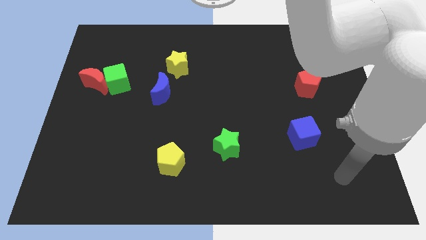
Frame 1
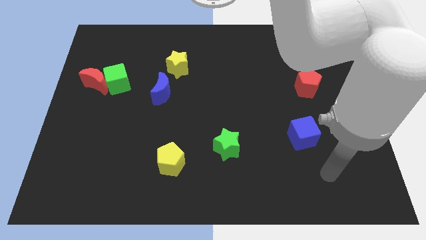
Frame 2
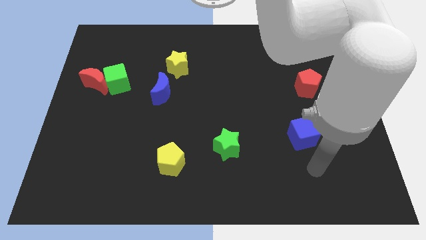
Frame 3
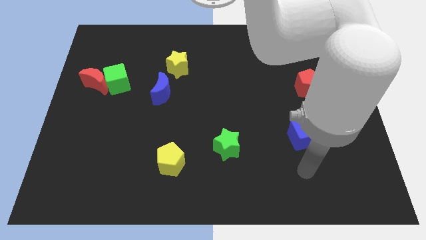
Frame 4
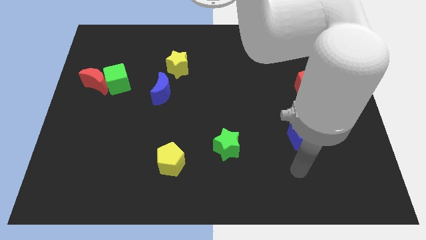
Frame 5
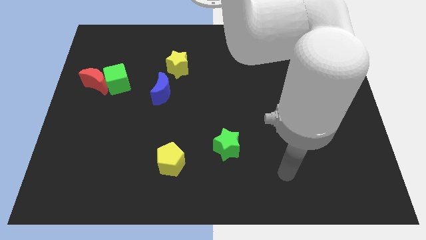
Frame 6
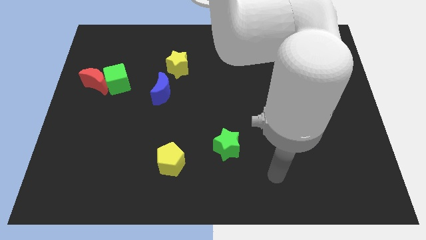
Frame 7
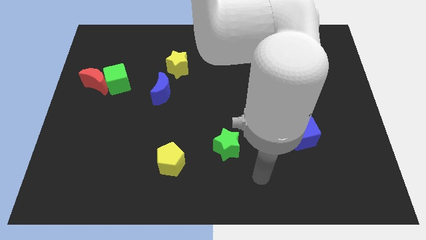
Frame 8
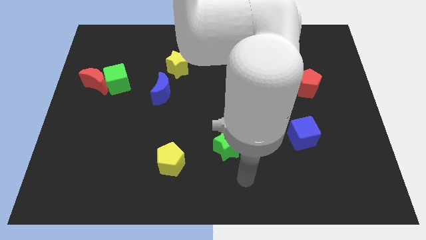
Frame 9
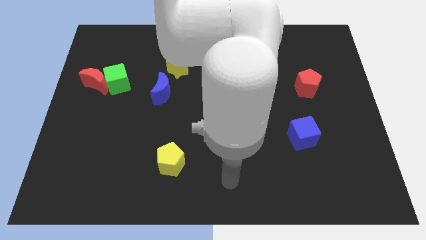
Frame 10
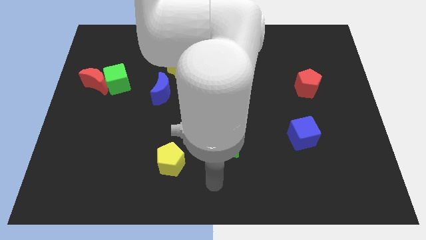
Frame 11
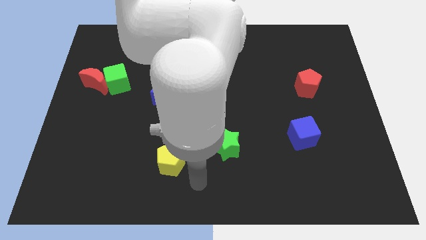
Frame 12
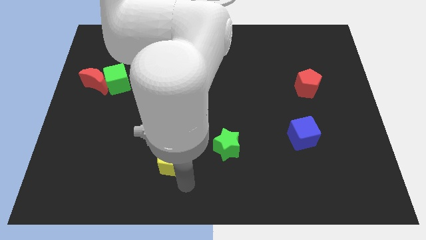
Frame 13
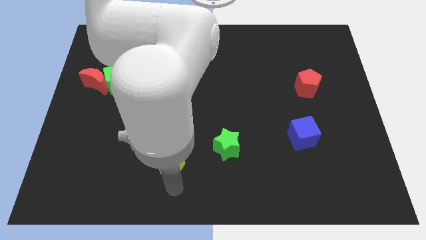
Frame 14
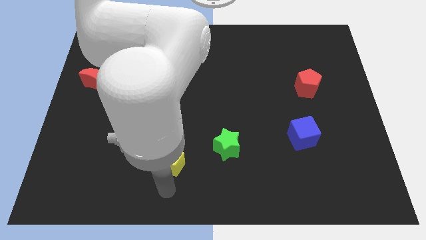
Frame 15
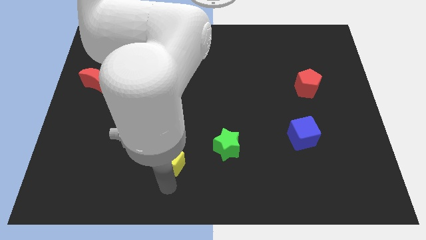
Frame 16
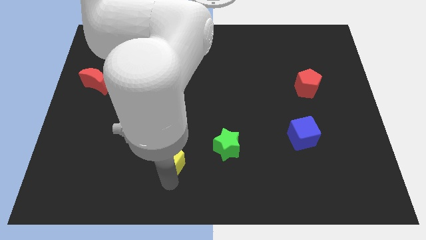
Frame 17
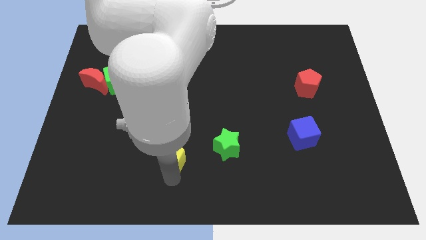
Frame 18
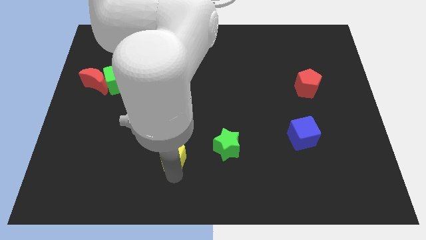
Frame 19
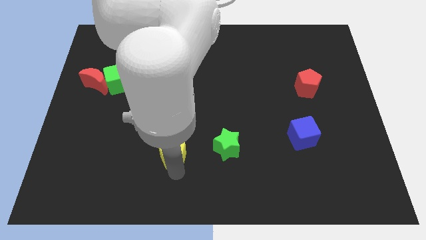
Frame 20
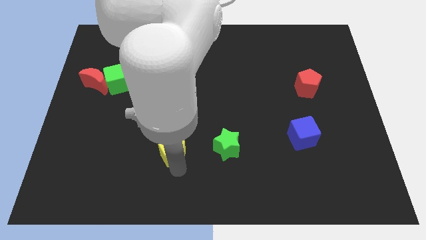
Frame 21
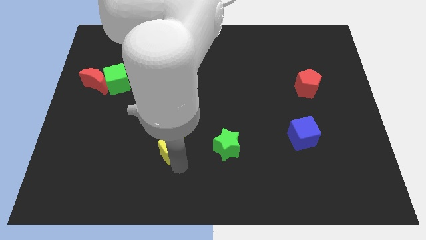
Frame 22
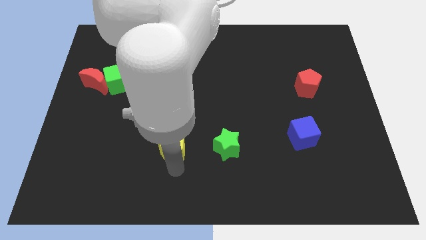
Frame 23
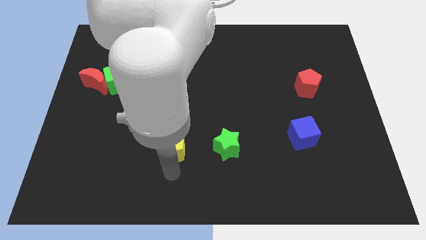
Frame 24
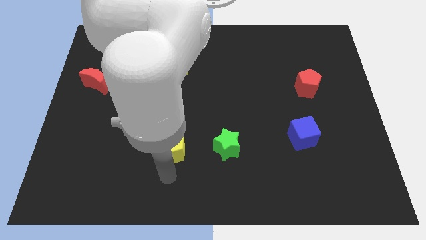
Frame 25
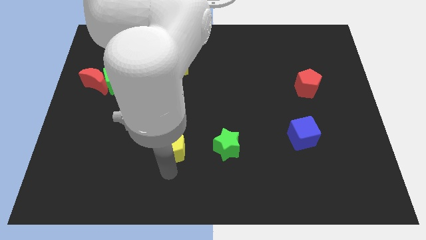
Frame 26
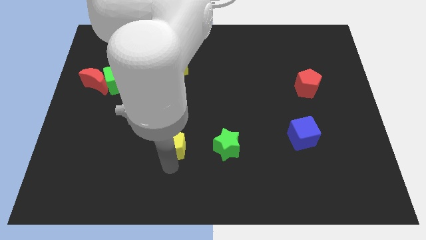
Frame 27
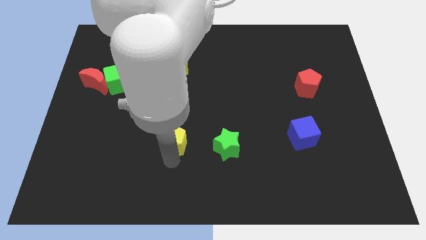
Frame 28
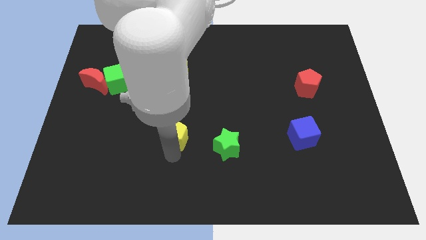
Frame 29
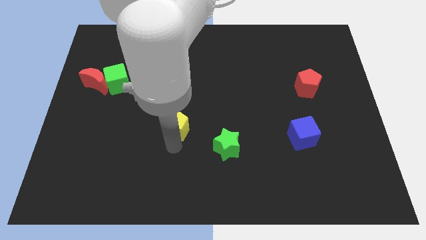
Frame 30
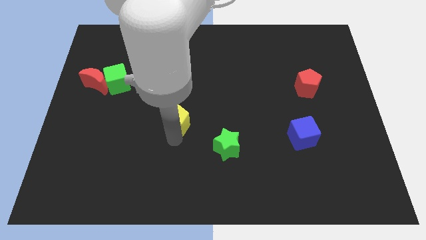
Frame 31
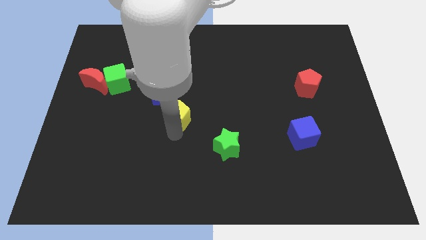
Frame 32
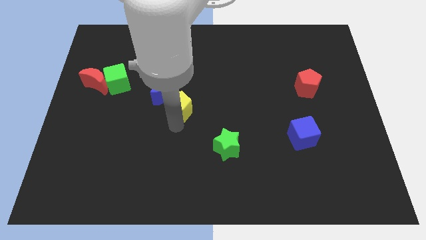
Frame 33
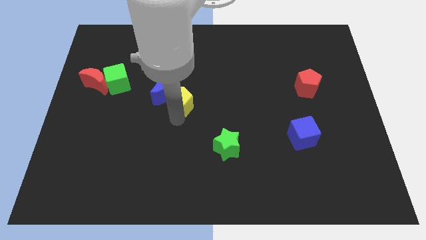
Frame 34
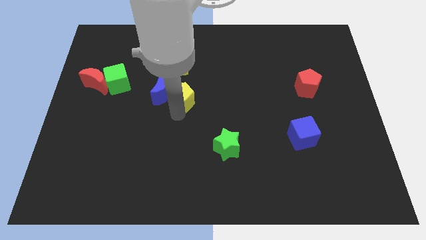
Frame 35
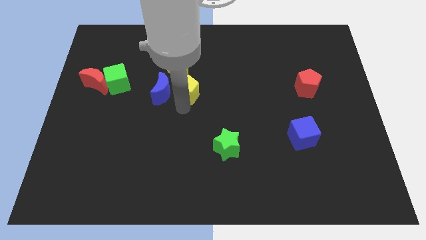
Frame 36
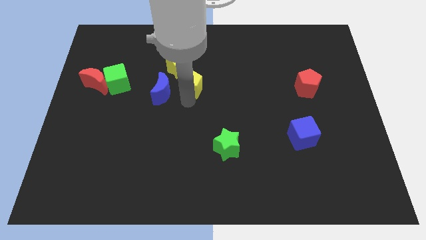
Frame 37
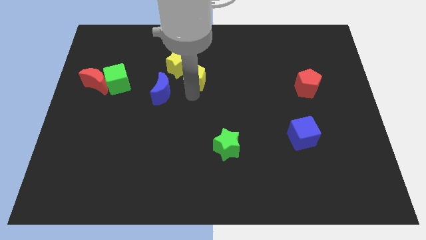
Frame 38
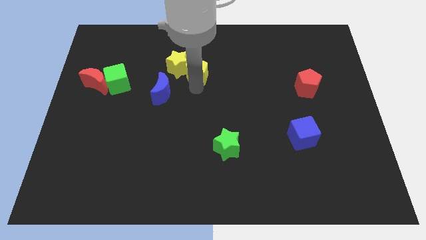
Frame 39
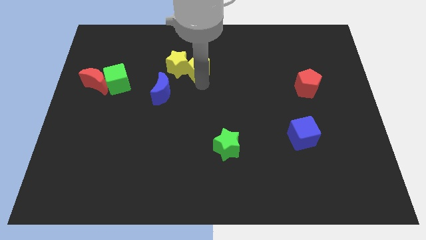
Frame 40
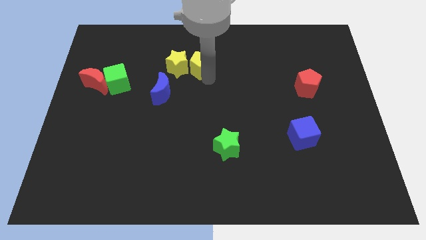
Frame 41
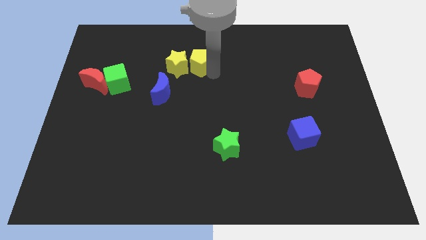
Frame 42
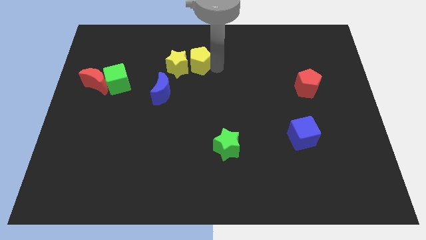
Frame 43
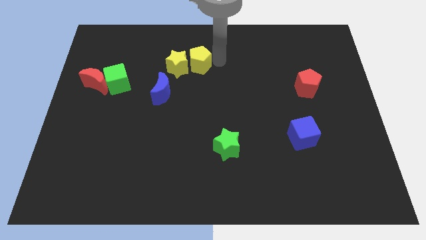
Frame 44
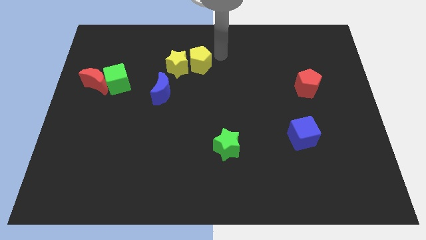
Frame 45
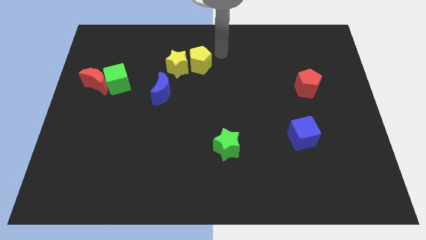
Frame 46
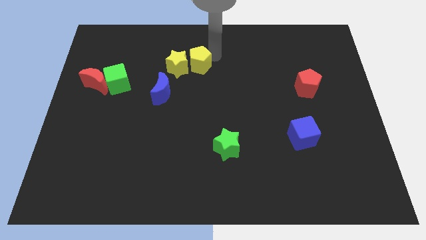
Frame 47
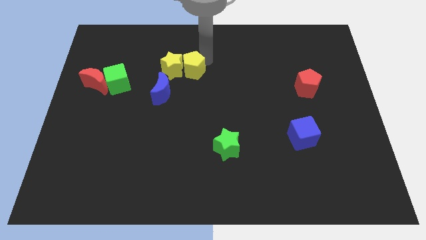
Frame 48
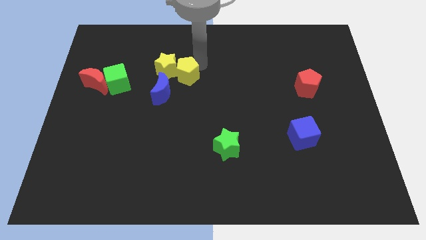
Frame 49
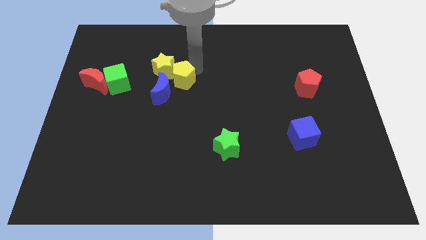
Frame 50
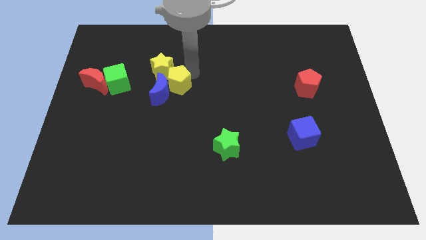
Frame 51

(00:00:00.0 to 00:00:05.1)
push the yellow pentagon just right of the green cube
